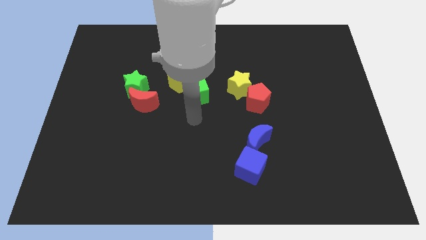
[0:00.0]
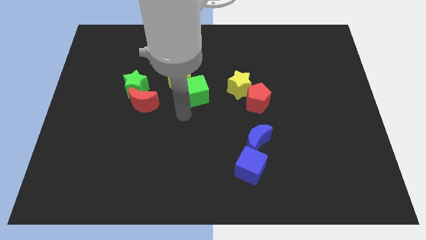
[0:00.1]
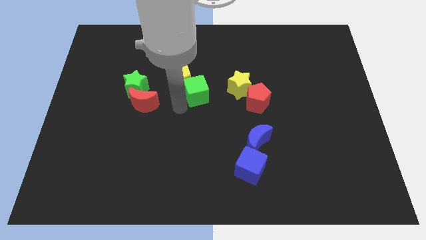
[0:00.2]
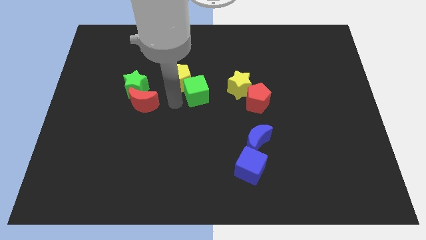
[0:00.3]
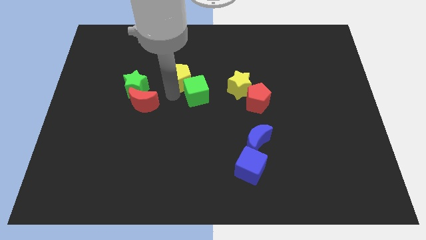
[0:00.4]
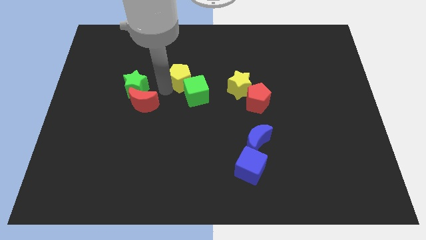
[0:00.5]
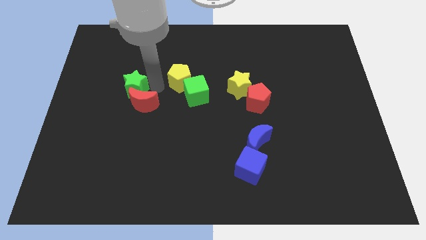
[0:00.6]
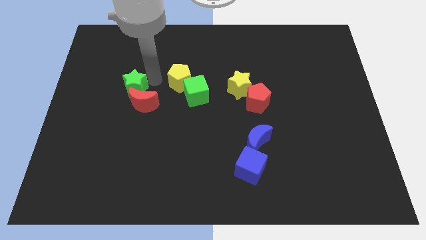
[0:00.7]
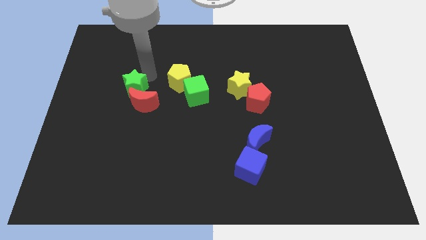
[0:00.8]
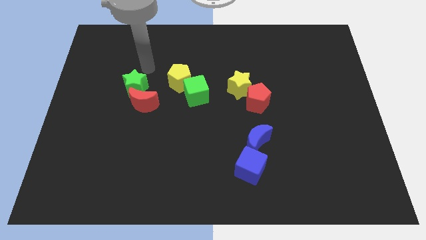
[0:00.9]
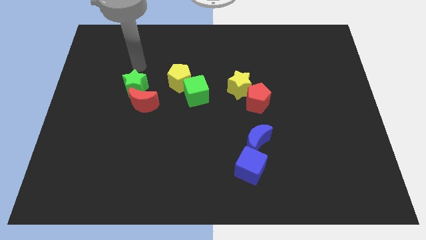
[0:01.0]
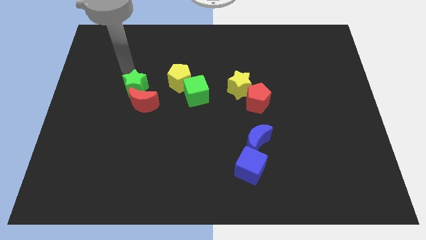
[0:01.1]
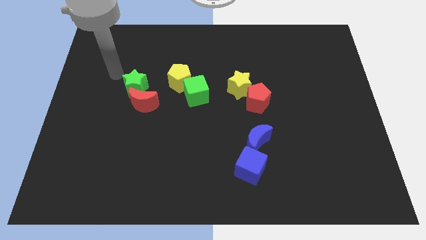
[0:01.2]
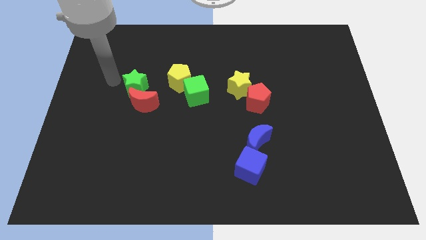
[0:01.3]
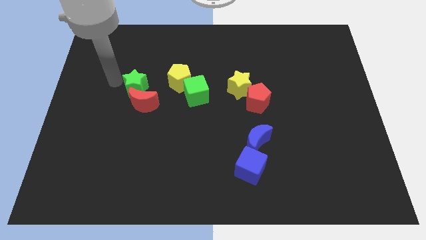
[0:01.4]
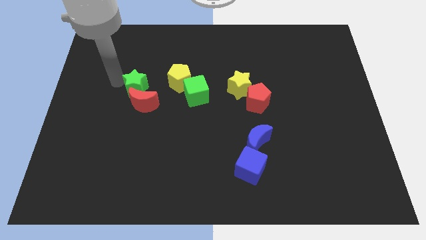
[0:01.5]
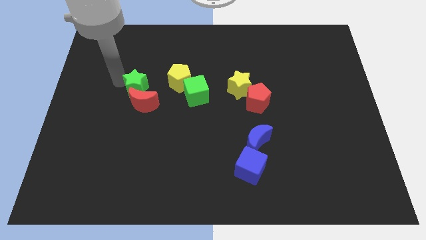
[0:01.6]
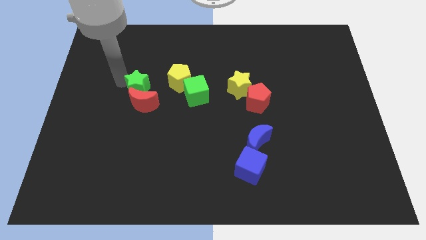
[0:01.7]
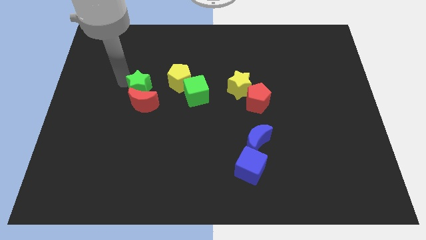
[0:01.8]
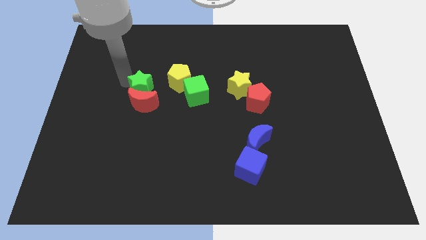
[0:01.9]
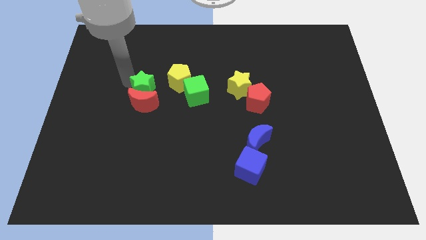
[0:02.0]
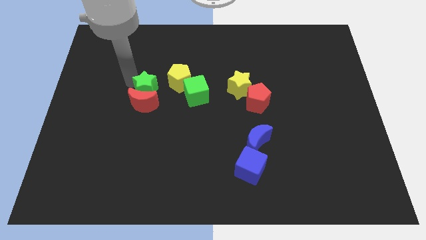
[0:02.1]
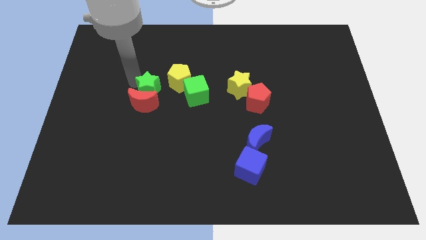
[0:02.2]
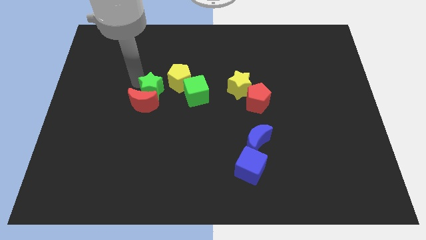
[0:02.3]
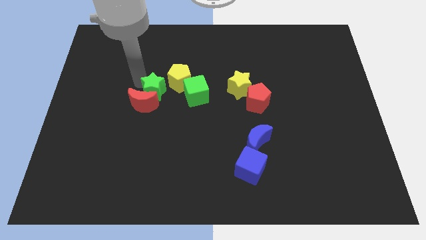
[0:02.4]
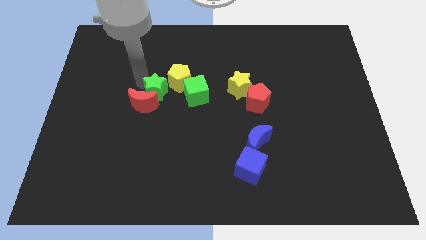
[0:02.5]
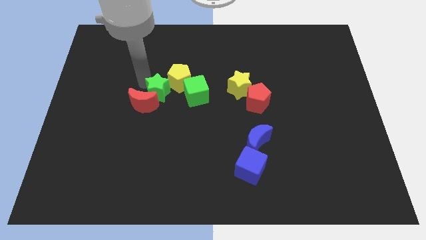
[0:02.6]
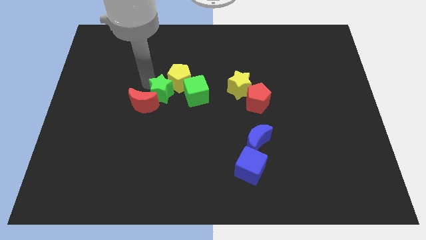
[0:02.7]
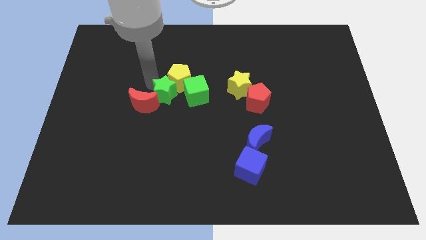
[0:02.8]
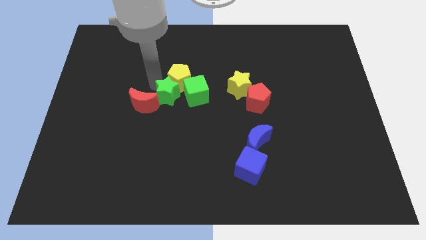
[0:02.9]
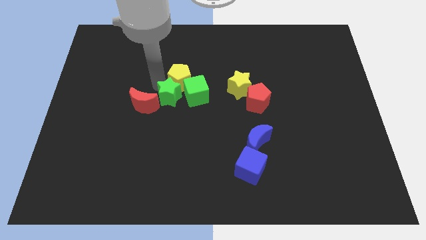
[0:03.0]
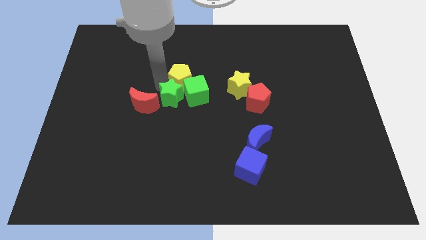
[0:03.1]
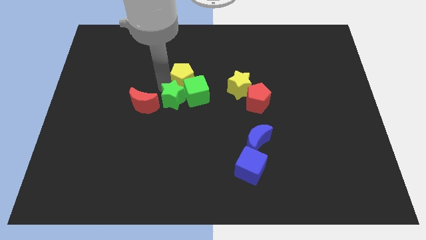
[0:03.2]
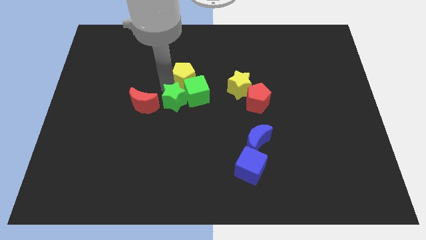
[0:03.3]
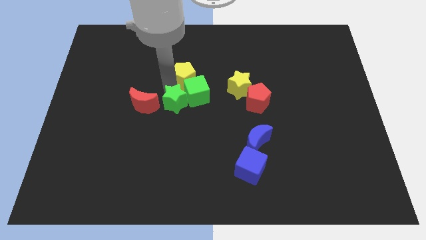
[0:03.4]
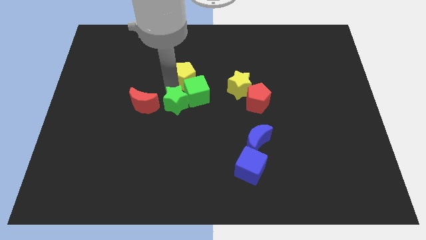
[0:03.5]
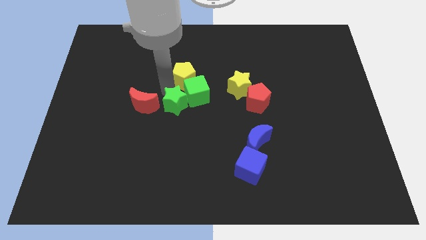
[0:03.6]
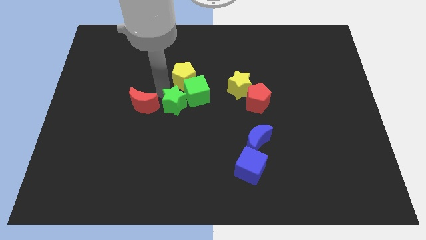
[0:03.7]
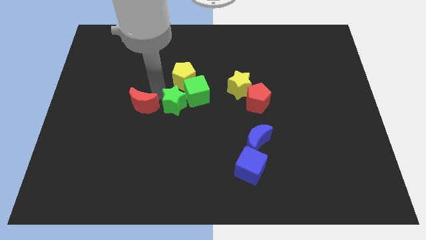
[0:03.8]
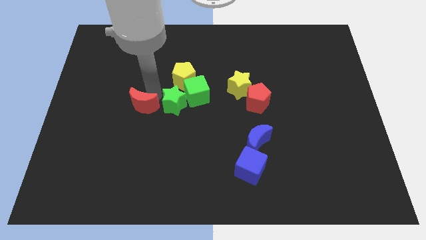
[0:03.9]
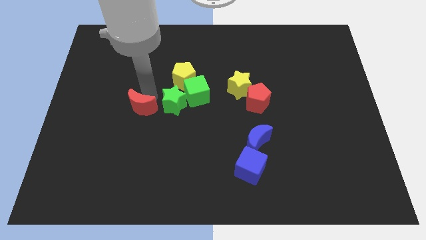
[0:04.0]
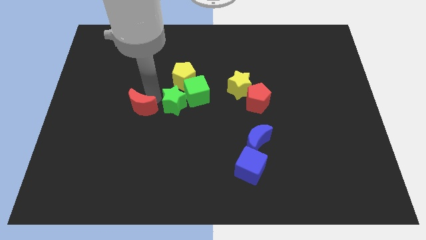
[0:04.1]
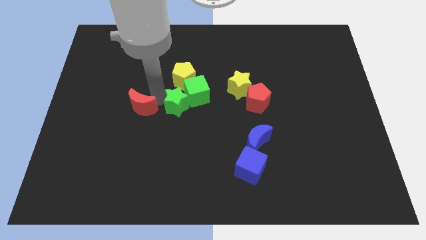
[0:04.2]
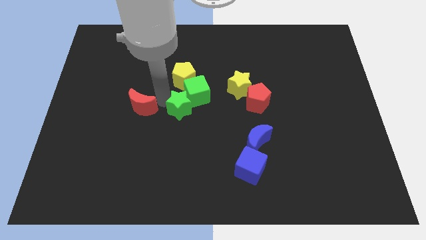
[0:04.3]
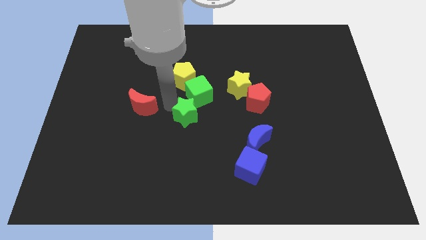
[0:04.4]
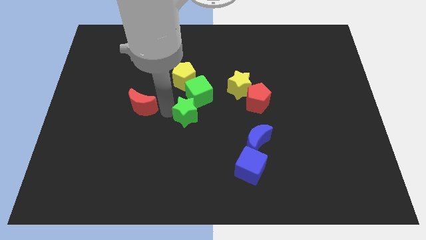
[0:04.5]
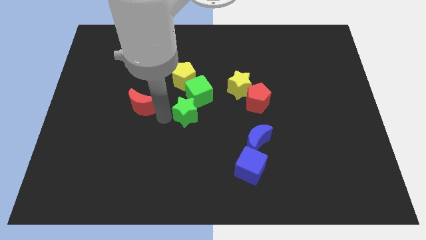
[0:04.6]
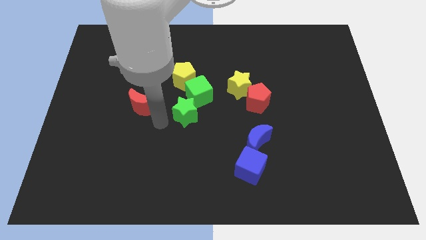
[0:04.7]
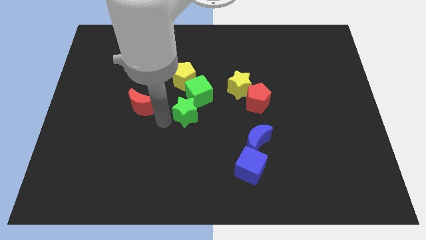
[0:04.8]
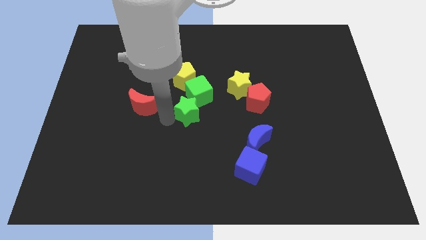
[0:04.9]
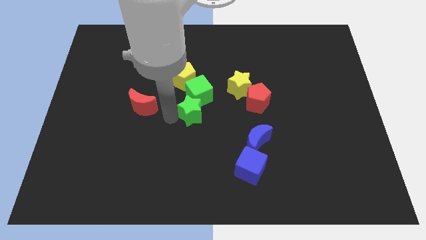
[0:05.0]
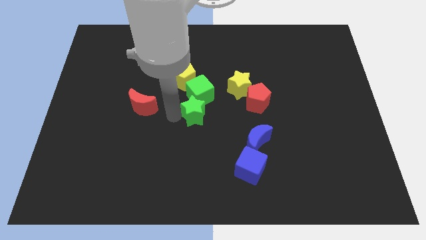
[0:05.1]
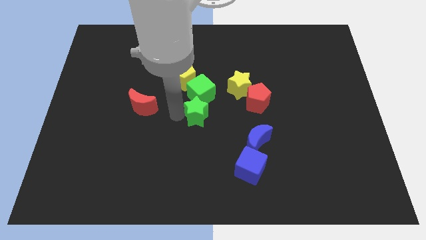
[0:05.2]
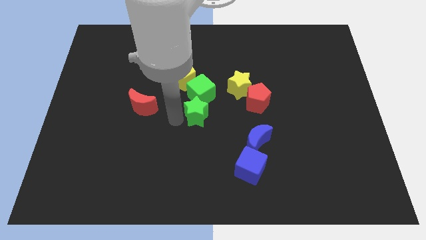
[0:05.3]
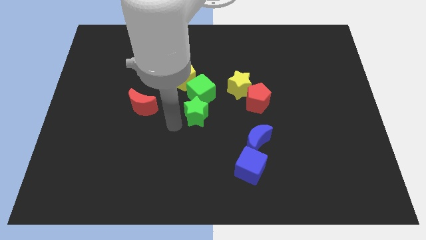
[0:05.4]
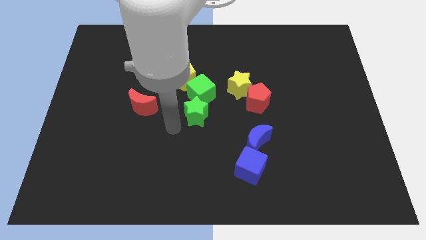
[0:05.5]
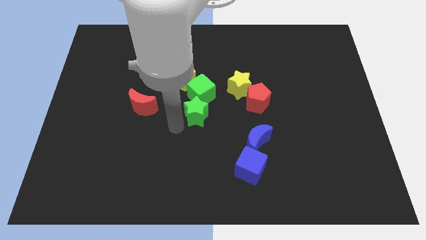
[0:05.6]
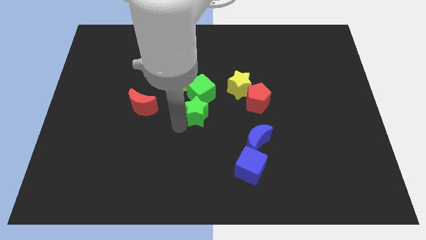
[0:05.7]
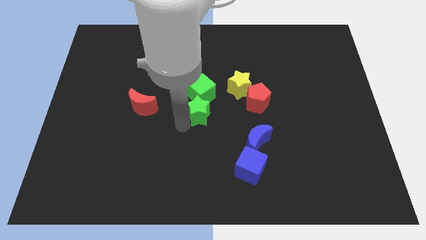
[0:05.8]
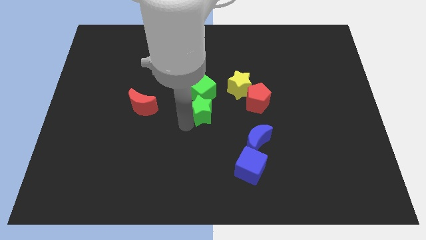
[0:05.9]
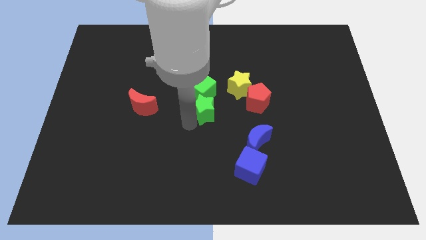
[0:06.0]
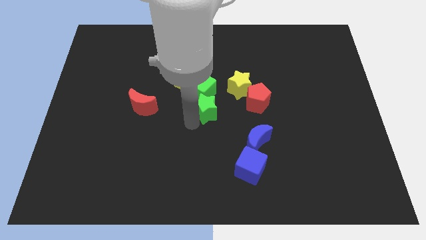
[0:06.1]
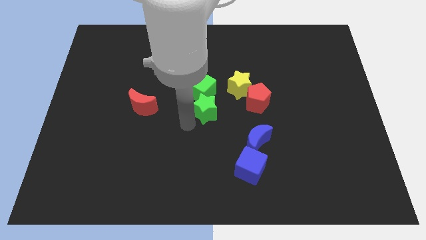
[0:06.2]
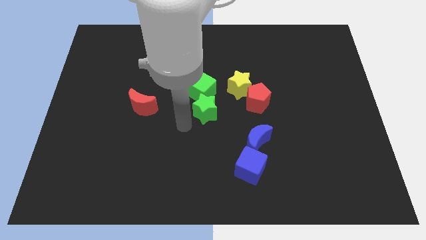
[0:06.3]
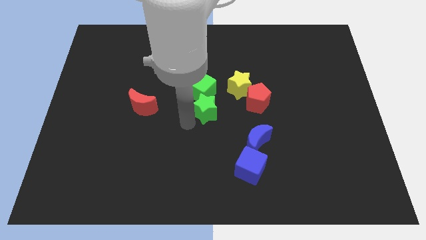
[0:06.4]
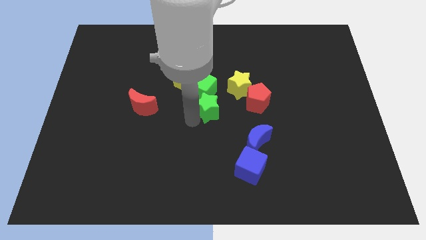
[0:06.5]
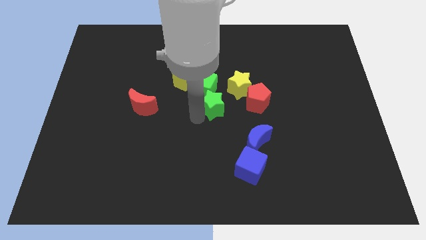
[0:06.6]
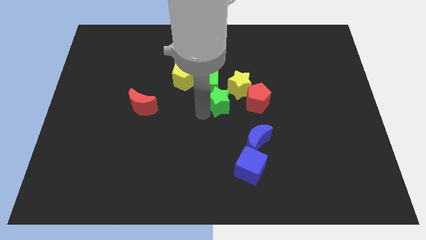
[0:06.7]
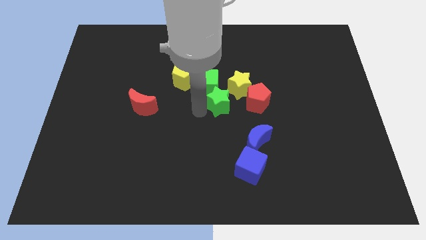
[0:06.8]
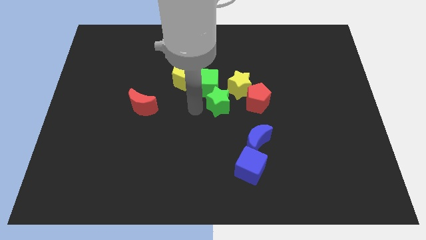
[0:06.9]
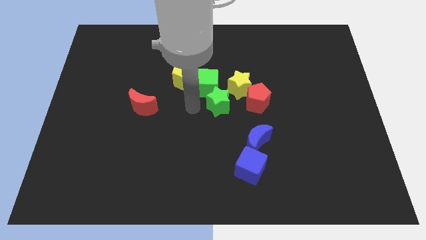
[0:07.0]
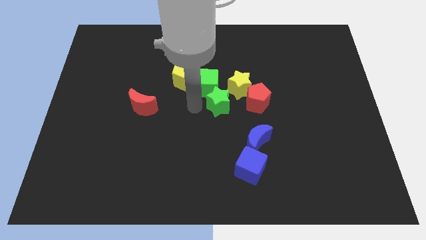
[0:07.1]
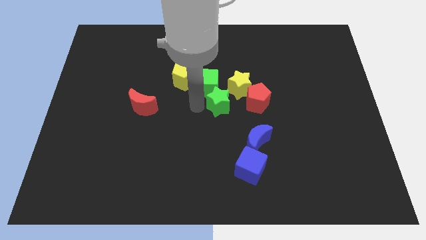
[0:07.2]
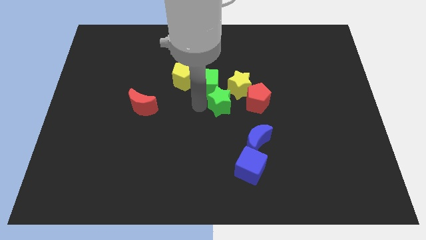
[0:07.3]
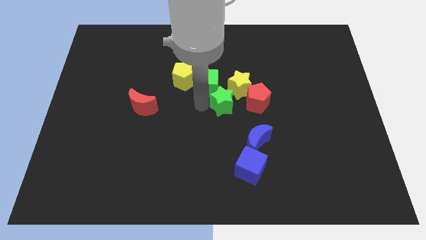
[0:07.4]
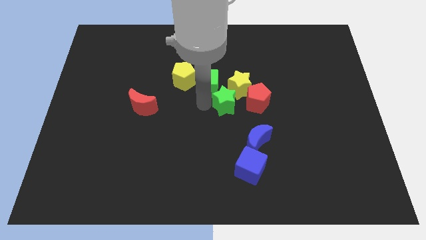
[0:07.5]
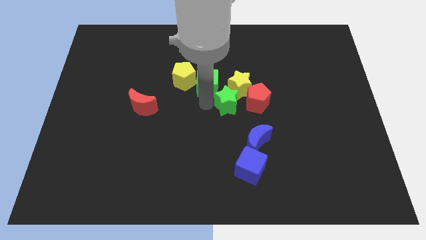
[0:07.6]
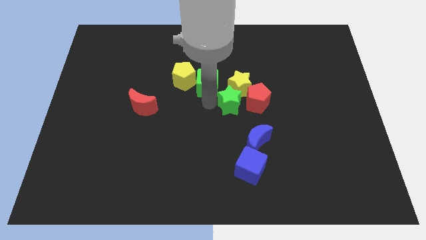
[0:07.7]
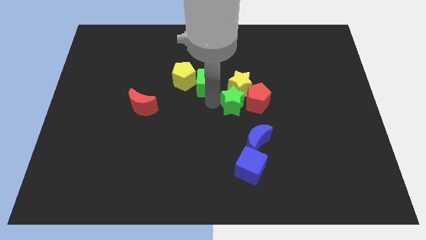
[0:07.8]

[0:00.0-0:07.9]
put the green star next to the red pentagon
